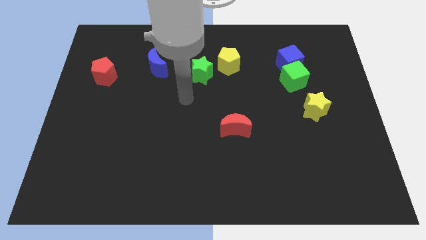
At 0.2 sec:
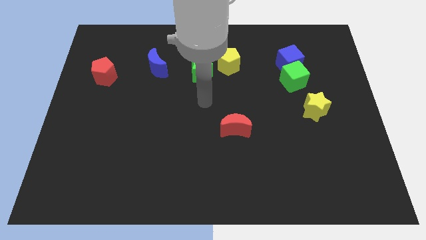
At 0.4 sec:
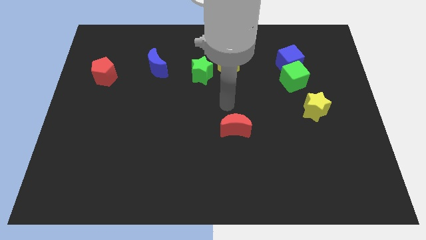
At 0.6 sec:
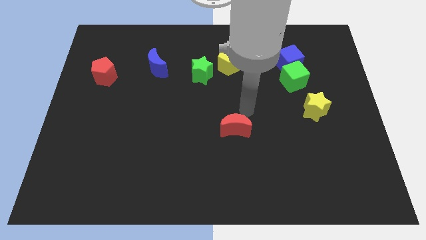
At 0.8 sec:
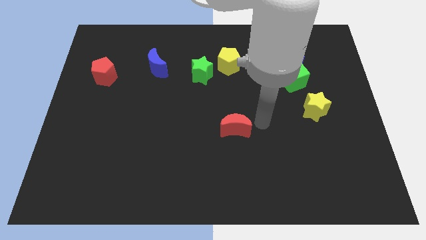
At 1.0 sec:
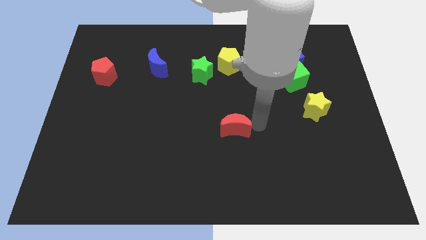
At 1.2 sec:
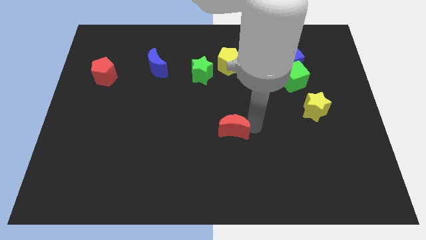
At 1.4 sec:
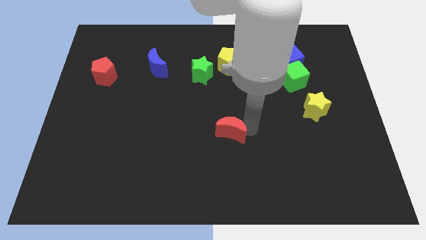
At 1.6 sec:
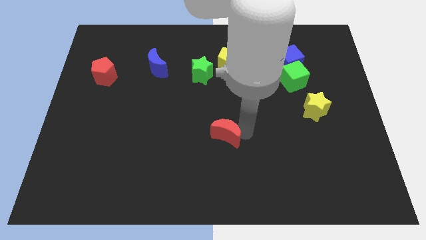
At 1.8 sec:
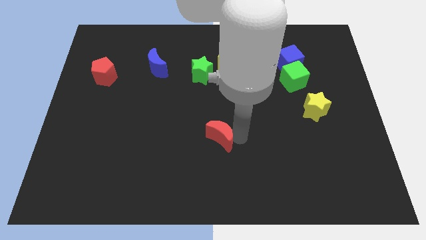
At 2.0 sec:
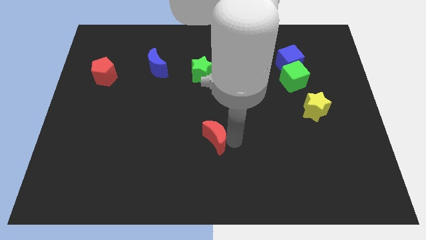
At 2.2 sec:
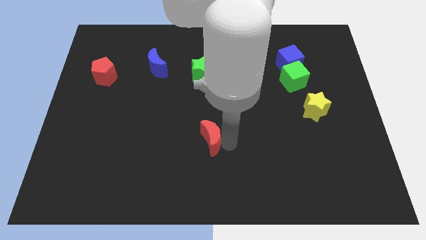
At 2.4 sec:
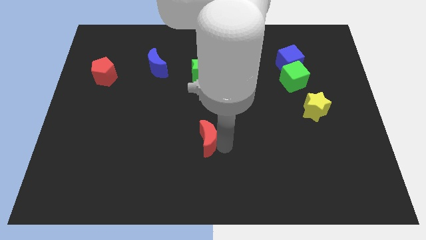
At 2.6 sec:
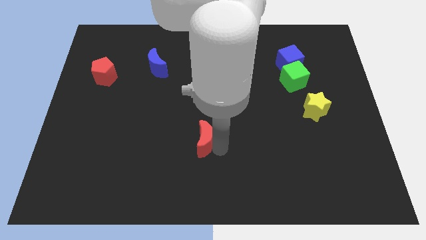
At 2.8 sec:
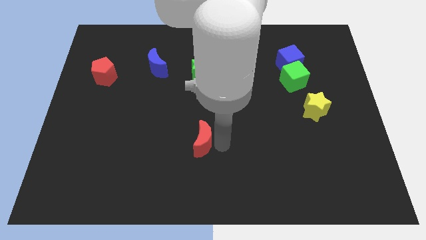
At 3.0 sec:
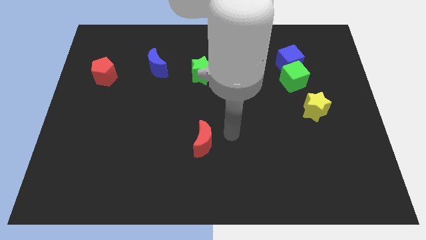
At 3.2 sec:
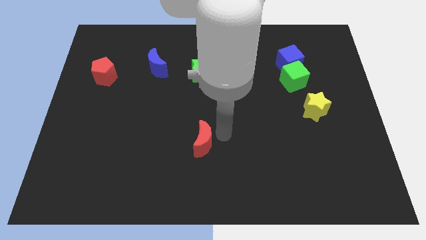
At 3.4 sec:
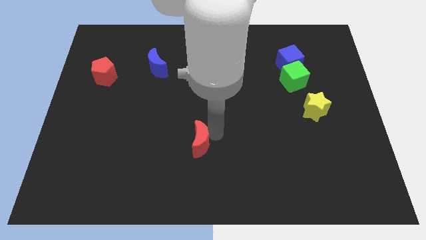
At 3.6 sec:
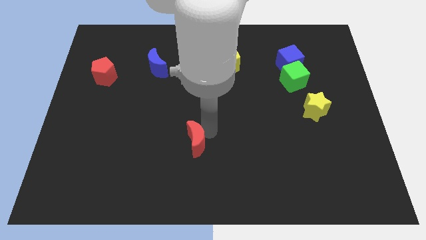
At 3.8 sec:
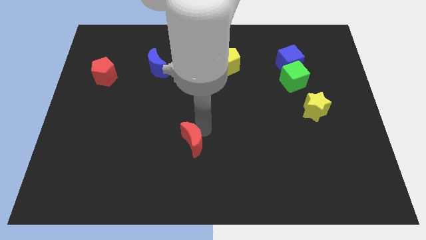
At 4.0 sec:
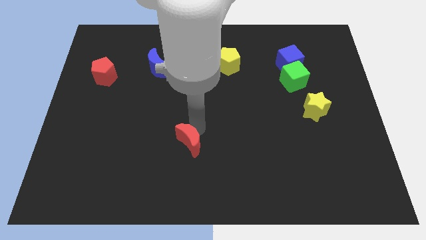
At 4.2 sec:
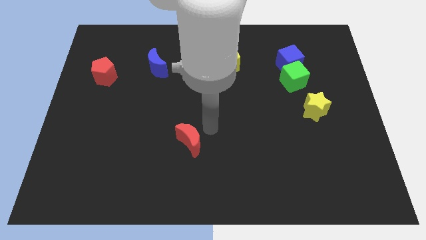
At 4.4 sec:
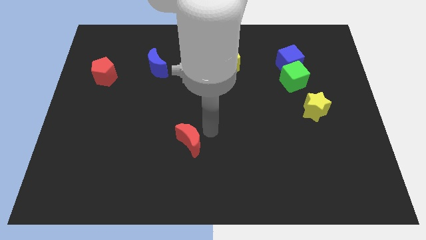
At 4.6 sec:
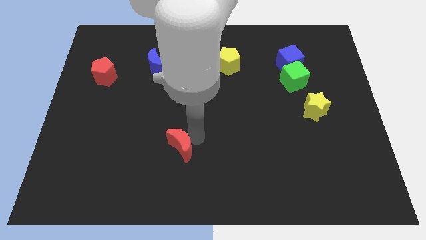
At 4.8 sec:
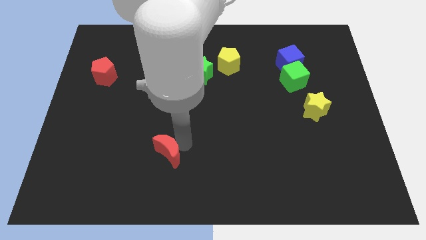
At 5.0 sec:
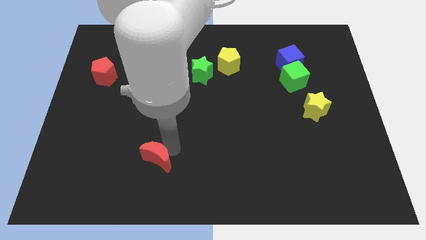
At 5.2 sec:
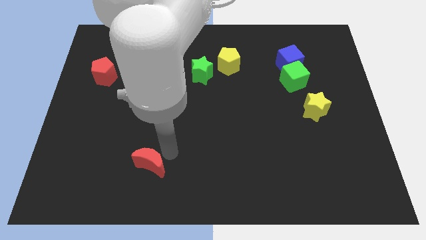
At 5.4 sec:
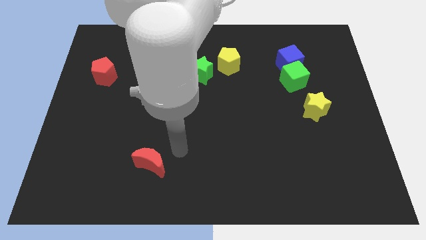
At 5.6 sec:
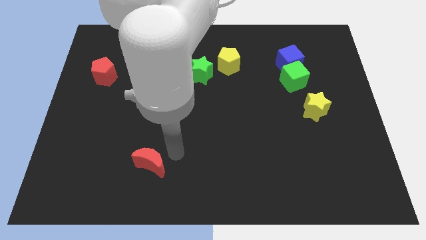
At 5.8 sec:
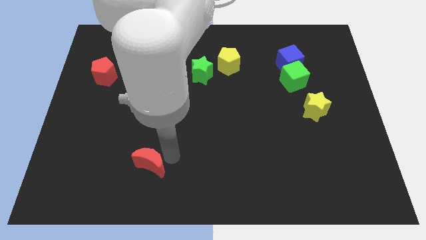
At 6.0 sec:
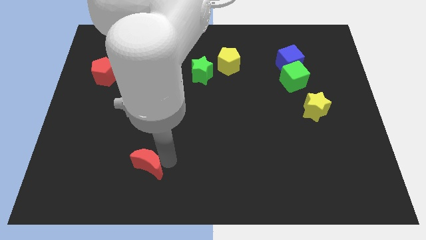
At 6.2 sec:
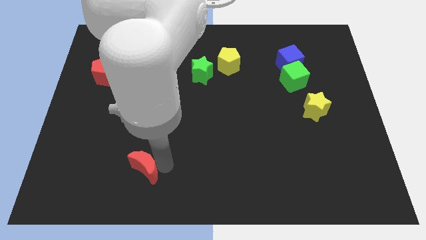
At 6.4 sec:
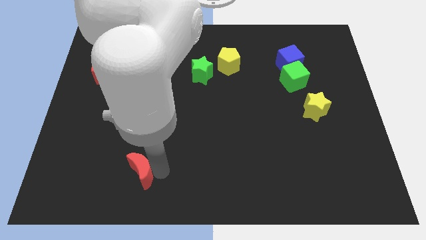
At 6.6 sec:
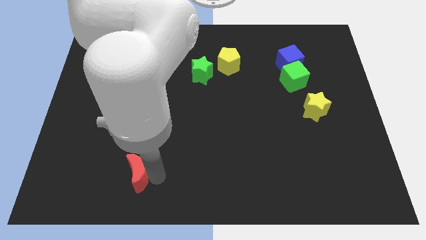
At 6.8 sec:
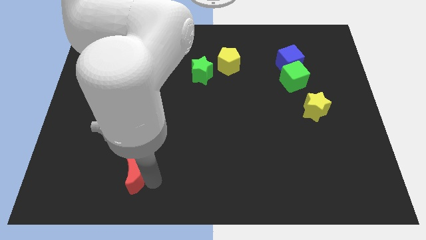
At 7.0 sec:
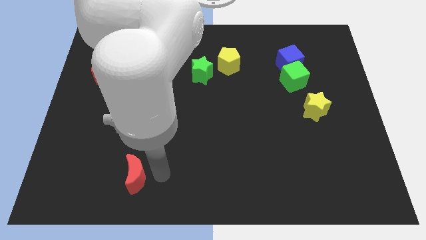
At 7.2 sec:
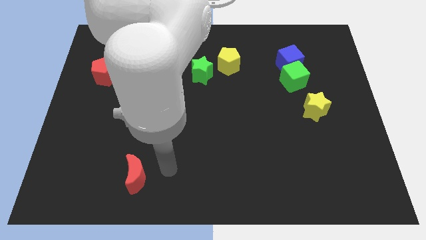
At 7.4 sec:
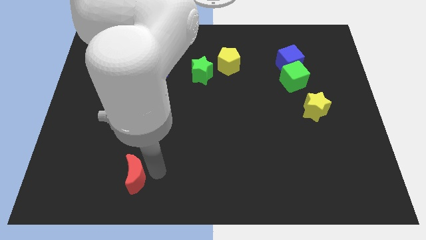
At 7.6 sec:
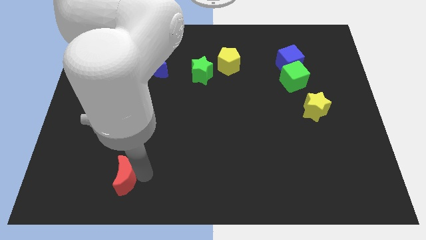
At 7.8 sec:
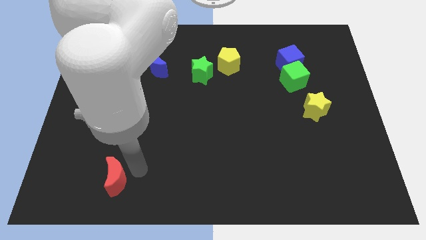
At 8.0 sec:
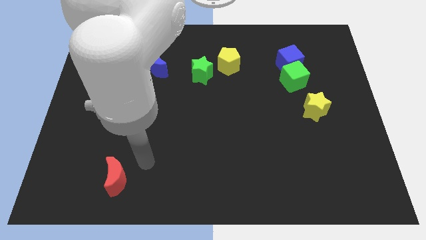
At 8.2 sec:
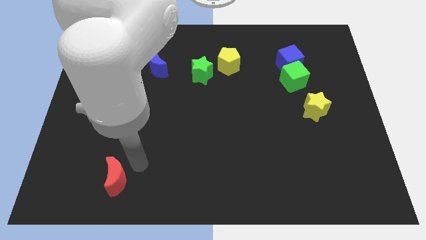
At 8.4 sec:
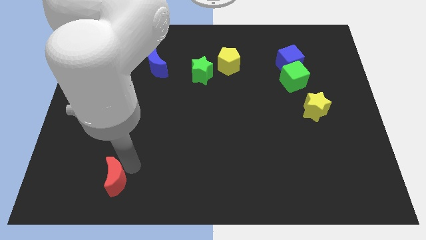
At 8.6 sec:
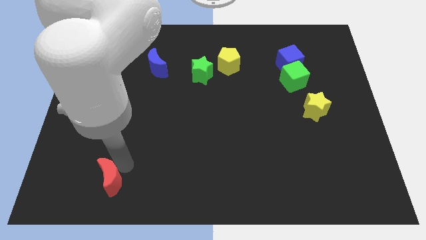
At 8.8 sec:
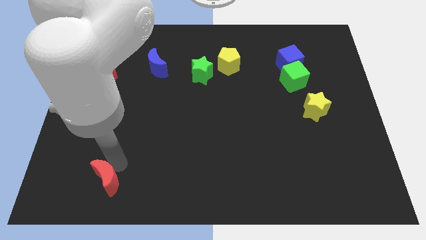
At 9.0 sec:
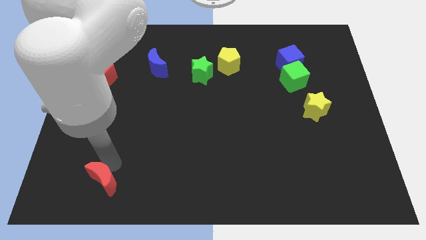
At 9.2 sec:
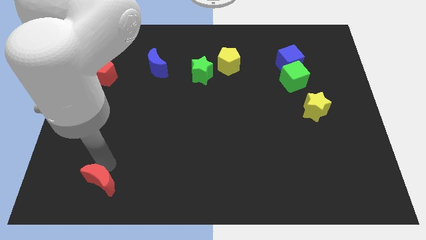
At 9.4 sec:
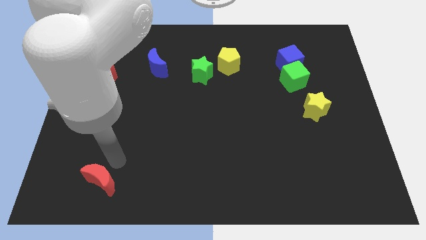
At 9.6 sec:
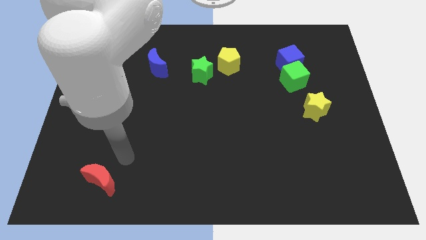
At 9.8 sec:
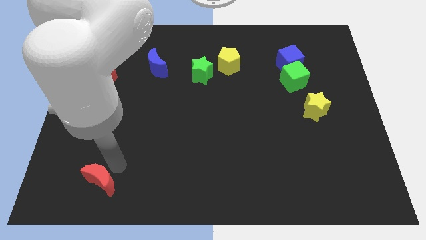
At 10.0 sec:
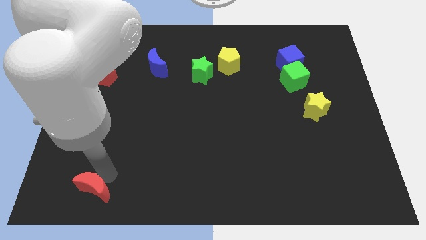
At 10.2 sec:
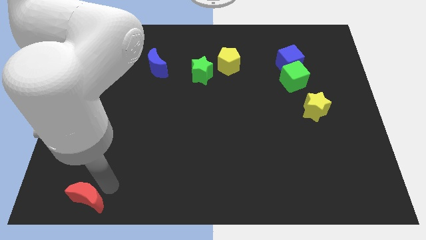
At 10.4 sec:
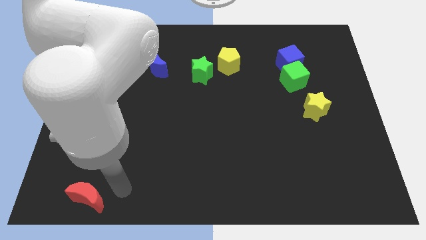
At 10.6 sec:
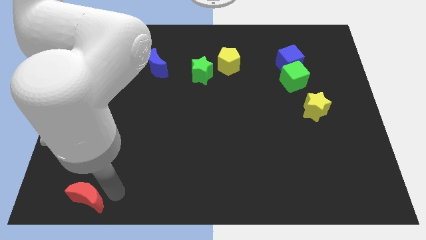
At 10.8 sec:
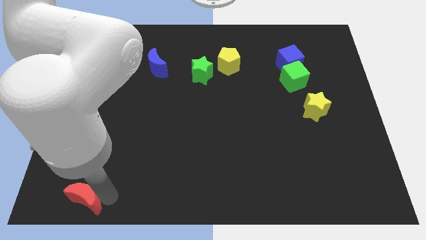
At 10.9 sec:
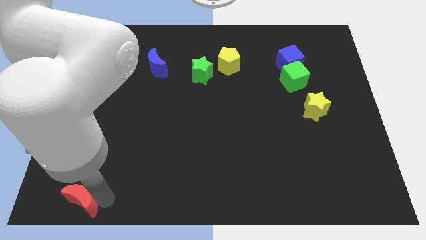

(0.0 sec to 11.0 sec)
push the red moon to the bottom left

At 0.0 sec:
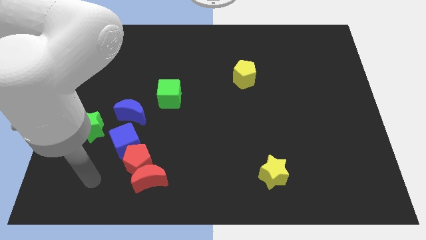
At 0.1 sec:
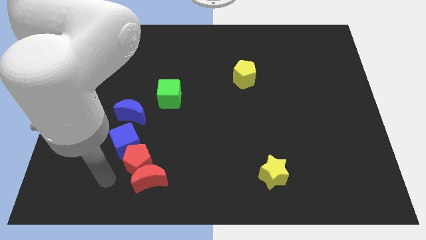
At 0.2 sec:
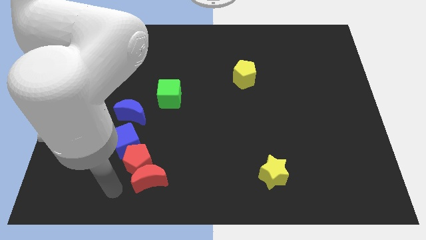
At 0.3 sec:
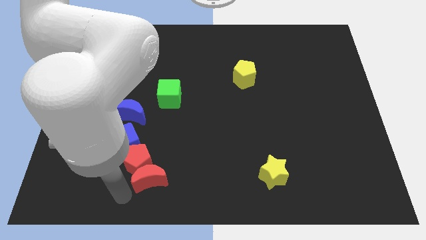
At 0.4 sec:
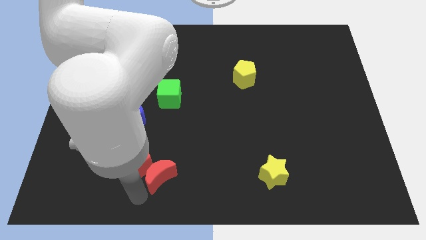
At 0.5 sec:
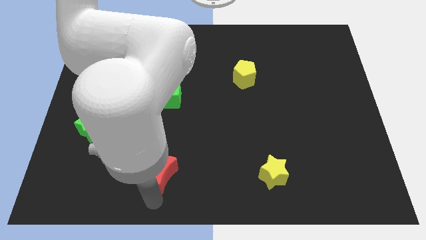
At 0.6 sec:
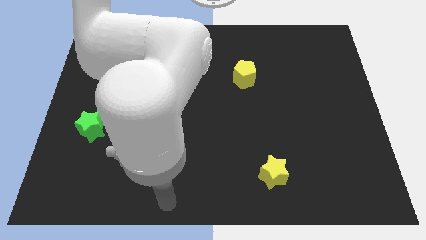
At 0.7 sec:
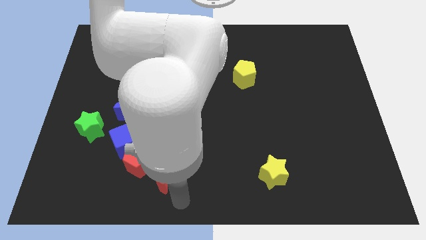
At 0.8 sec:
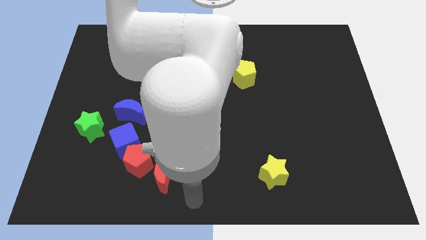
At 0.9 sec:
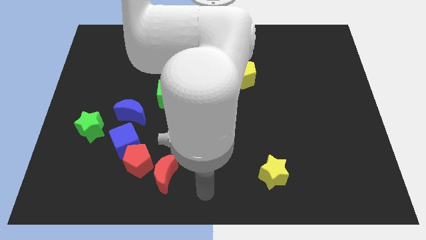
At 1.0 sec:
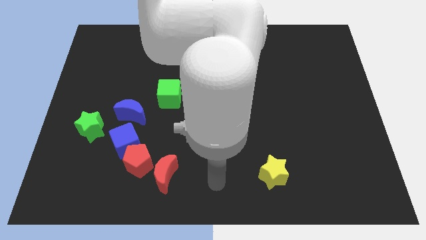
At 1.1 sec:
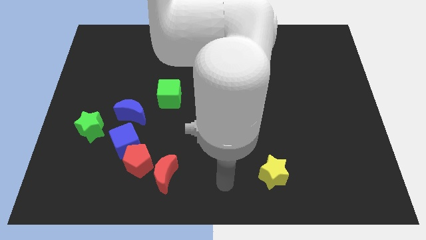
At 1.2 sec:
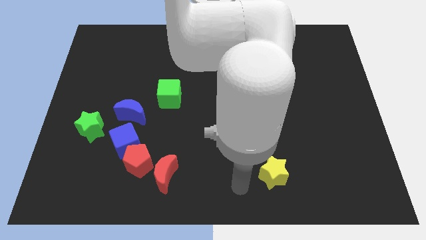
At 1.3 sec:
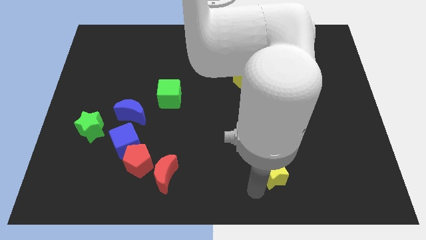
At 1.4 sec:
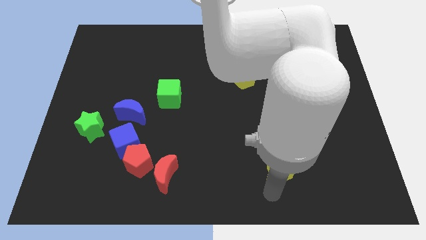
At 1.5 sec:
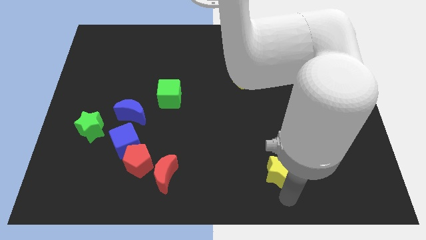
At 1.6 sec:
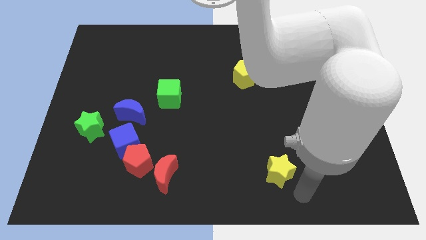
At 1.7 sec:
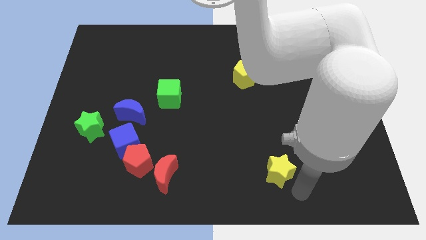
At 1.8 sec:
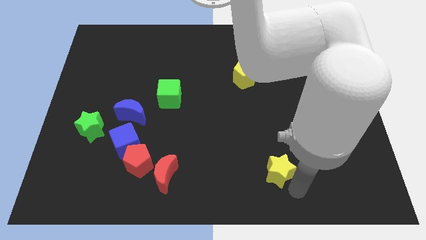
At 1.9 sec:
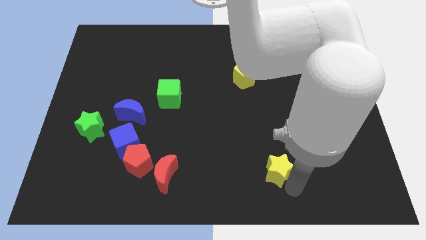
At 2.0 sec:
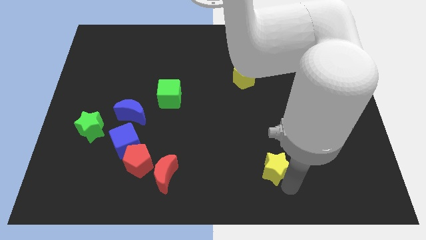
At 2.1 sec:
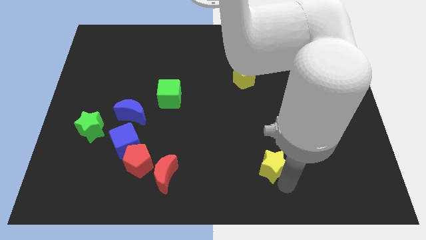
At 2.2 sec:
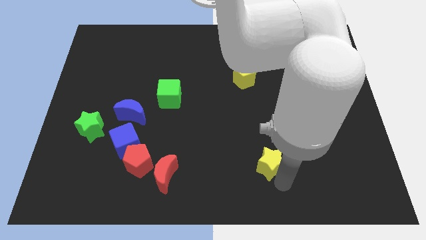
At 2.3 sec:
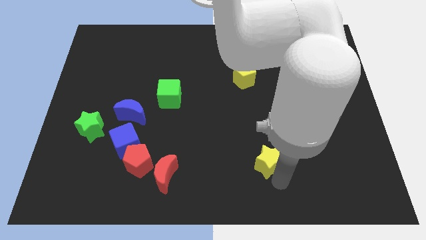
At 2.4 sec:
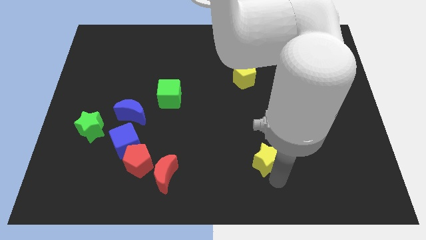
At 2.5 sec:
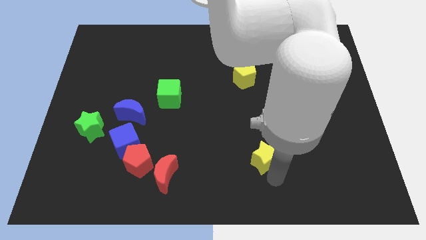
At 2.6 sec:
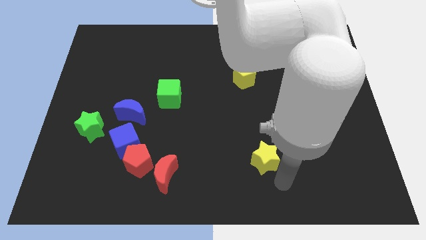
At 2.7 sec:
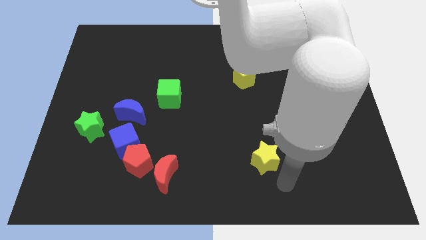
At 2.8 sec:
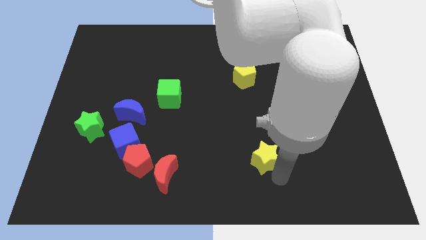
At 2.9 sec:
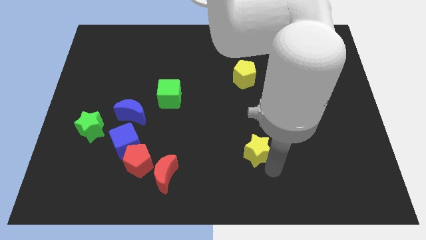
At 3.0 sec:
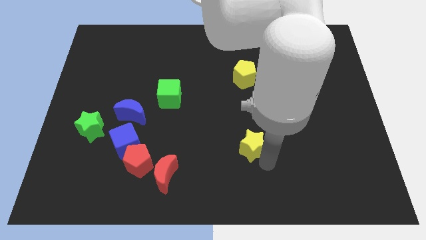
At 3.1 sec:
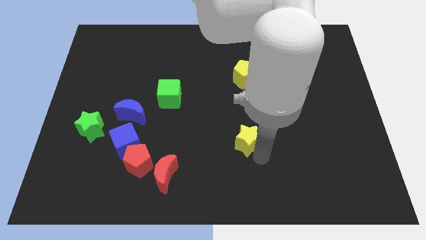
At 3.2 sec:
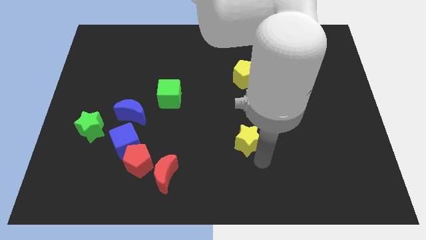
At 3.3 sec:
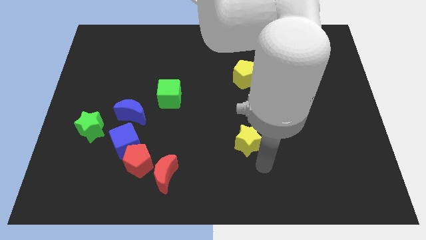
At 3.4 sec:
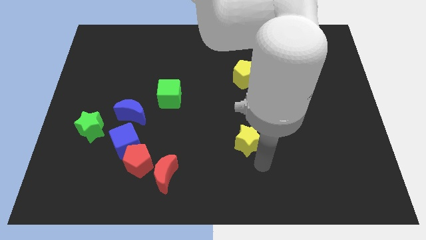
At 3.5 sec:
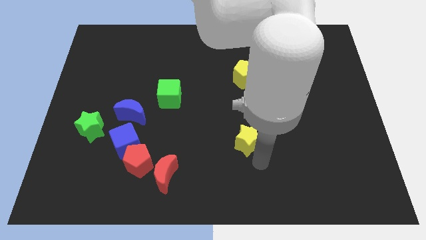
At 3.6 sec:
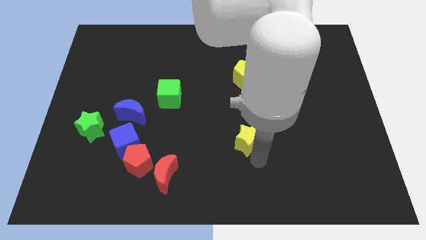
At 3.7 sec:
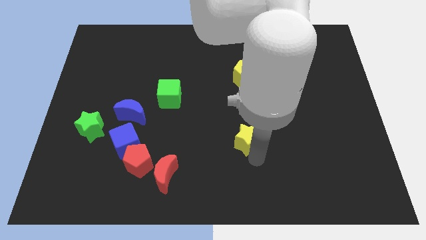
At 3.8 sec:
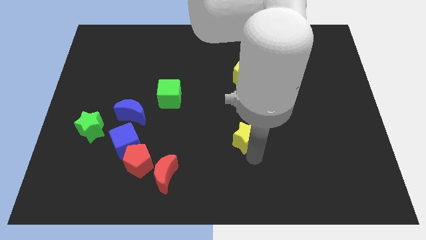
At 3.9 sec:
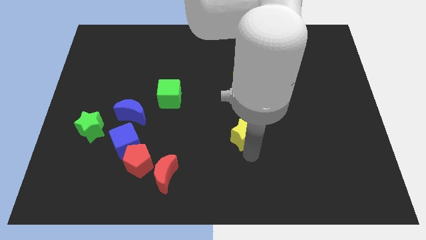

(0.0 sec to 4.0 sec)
slide the yellow star to the center of the board
